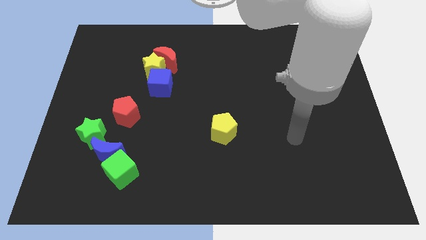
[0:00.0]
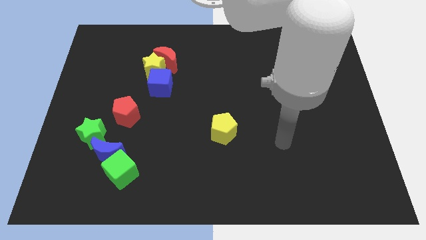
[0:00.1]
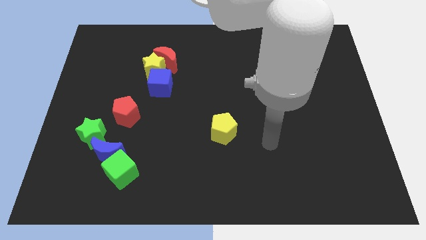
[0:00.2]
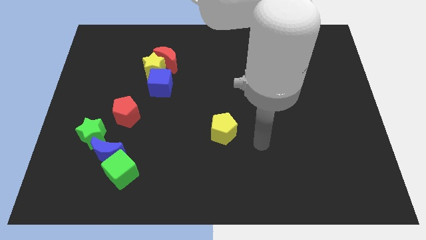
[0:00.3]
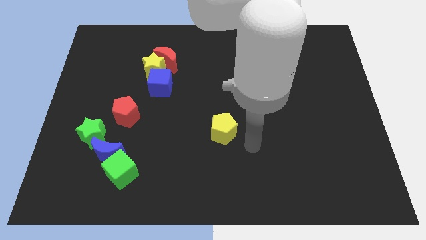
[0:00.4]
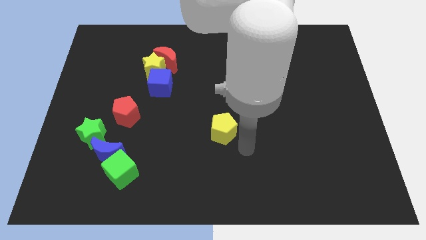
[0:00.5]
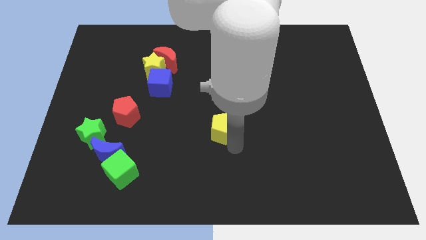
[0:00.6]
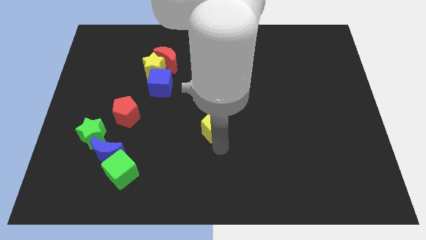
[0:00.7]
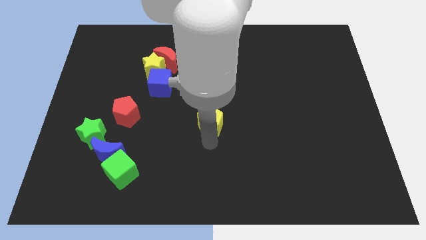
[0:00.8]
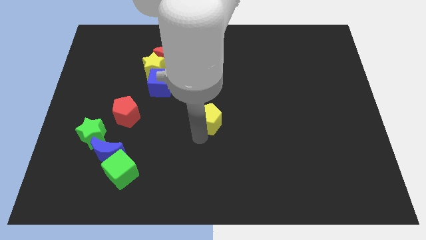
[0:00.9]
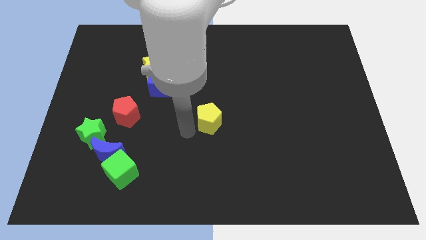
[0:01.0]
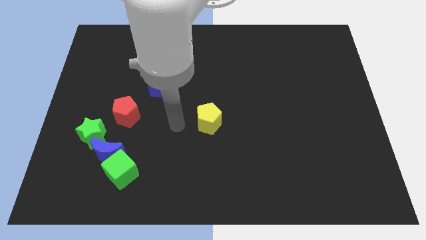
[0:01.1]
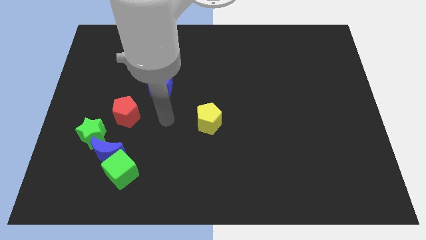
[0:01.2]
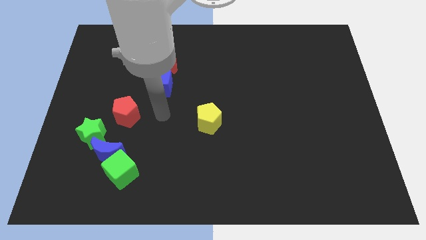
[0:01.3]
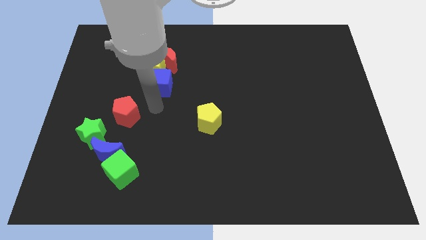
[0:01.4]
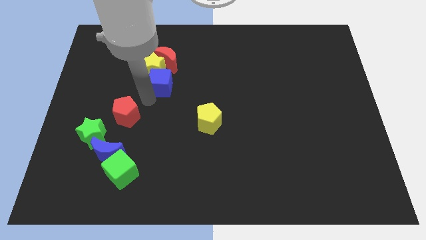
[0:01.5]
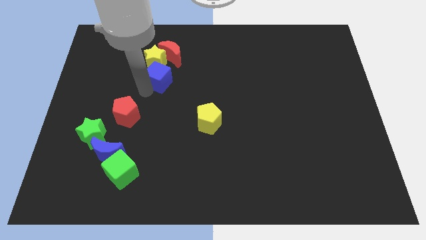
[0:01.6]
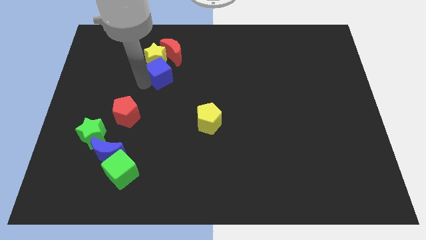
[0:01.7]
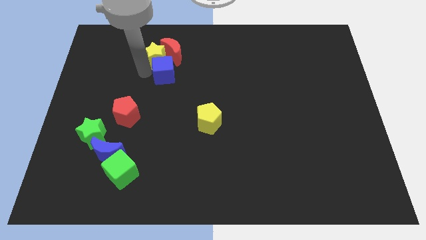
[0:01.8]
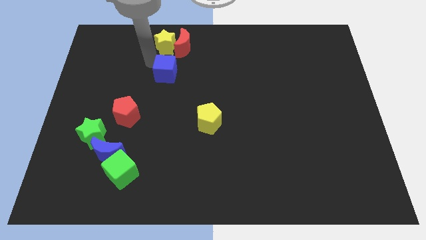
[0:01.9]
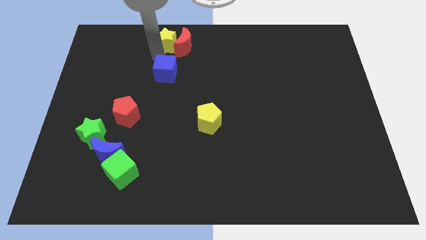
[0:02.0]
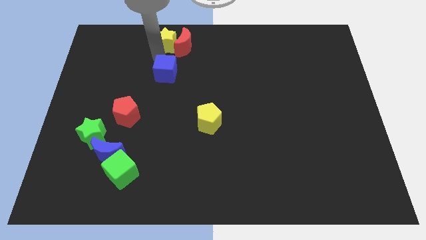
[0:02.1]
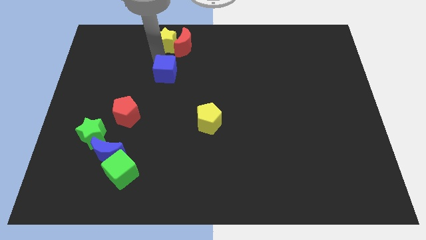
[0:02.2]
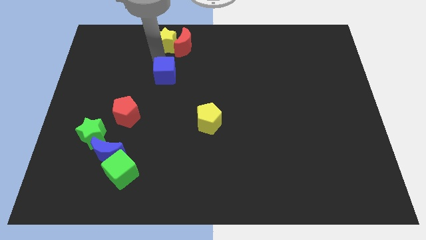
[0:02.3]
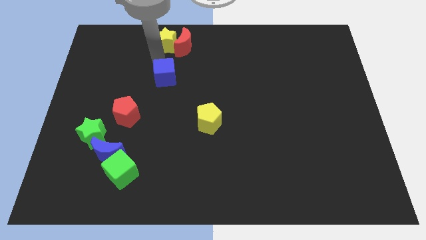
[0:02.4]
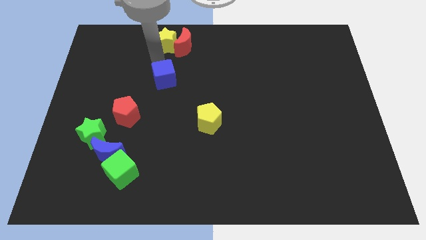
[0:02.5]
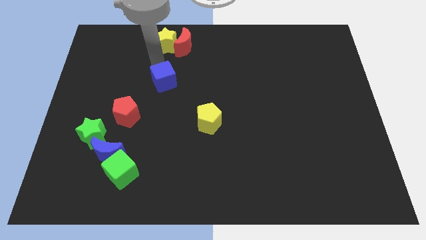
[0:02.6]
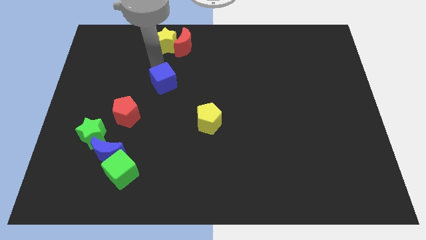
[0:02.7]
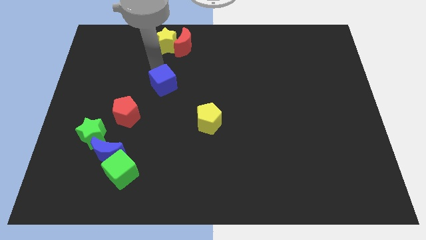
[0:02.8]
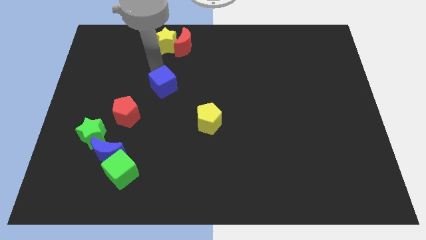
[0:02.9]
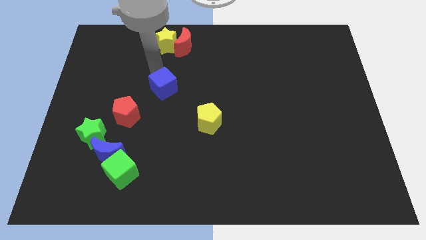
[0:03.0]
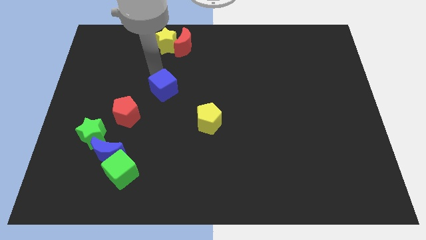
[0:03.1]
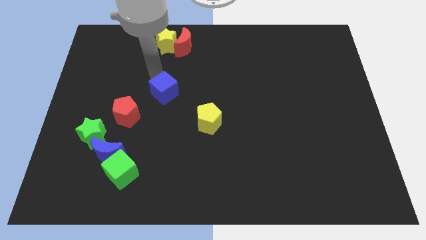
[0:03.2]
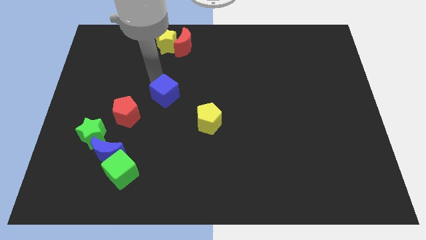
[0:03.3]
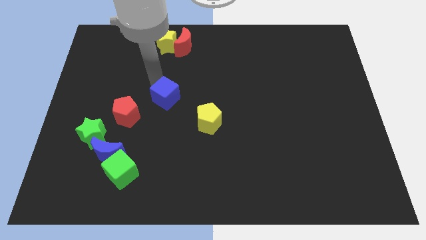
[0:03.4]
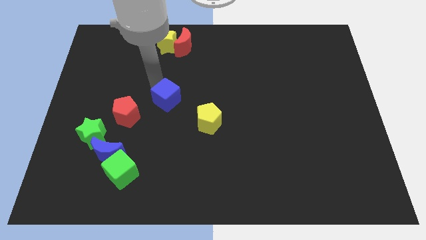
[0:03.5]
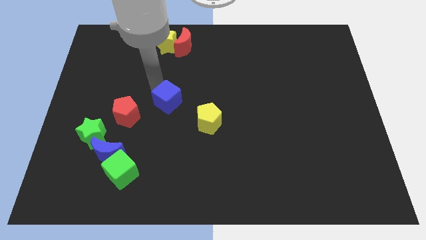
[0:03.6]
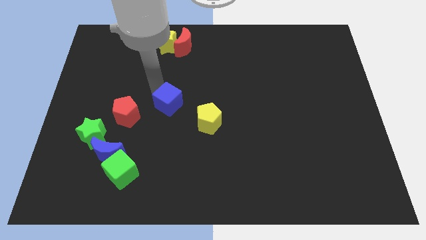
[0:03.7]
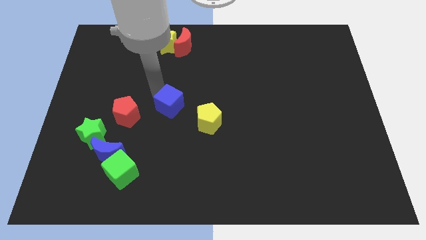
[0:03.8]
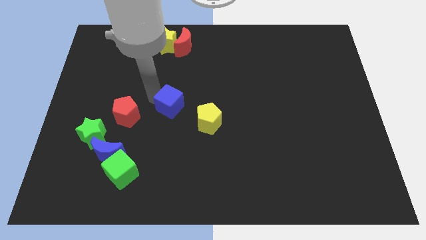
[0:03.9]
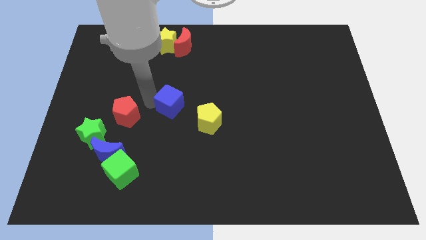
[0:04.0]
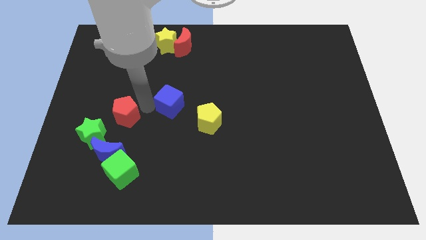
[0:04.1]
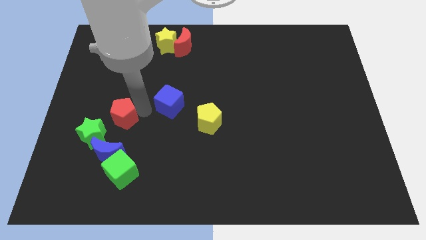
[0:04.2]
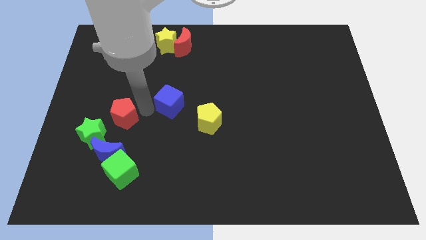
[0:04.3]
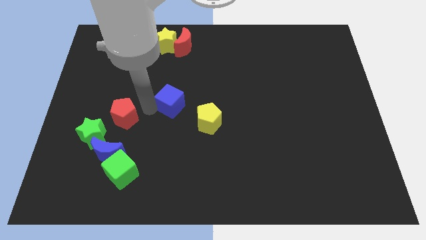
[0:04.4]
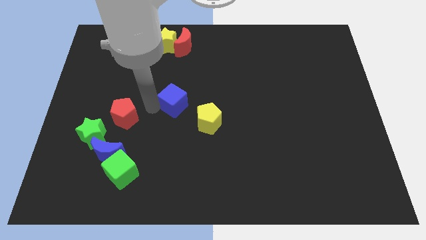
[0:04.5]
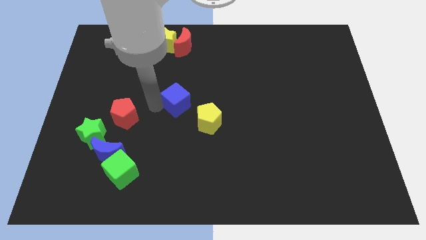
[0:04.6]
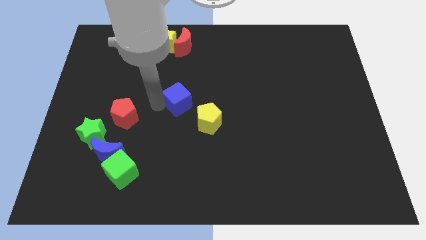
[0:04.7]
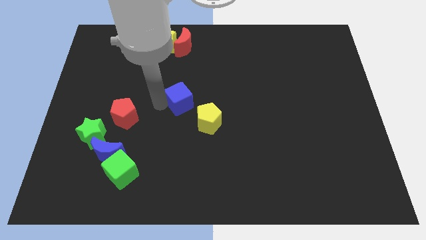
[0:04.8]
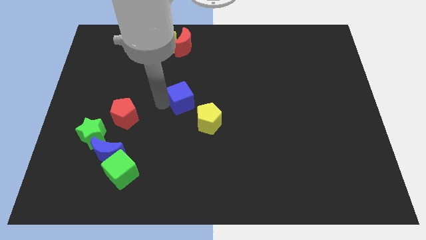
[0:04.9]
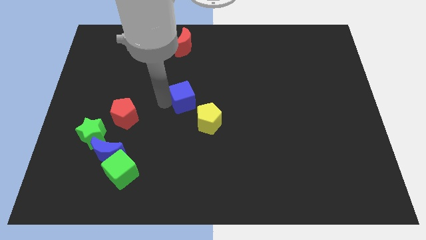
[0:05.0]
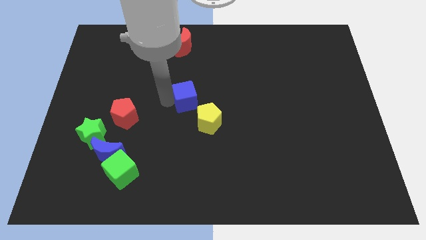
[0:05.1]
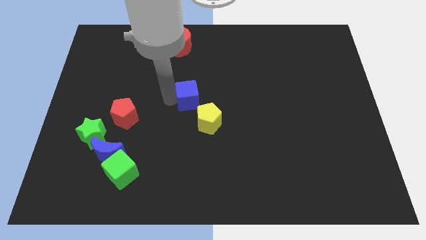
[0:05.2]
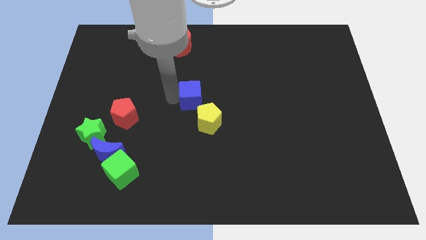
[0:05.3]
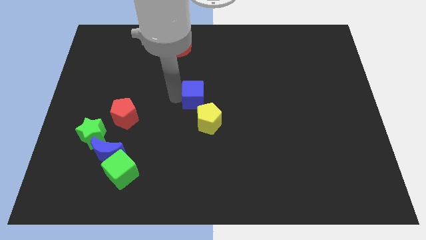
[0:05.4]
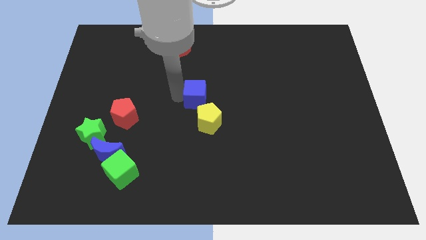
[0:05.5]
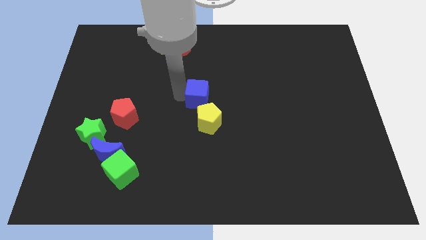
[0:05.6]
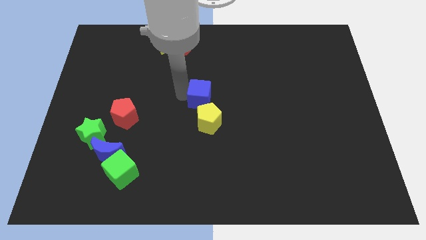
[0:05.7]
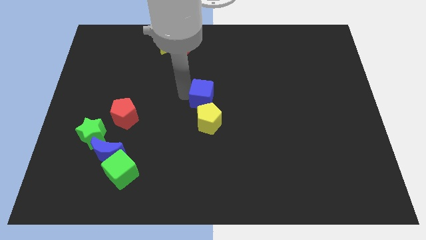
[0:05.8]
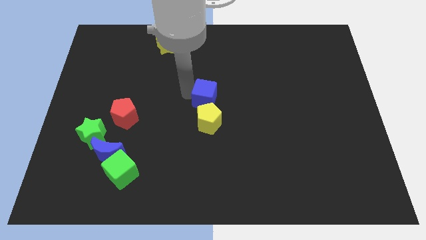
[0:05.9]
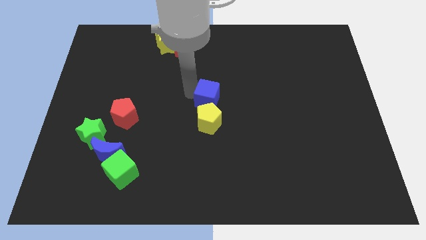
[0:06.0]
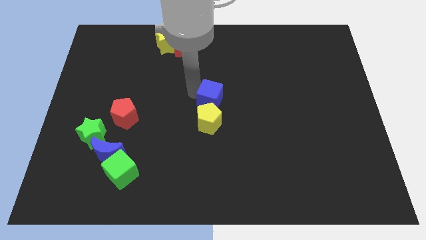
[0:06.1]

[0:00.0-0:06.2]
move the blue cube diagonally up and to the right of the yellow pentagon

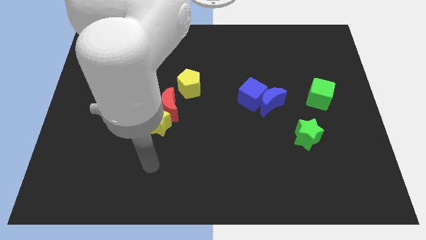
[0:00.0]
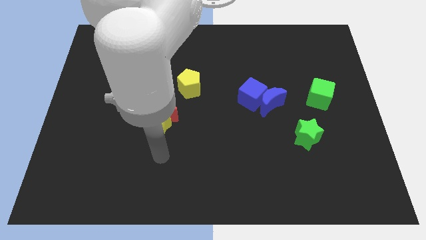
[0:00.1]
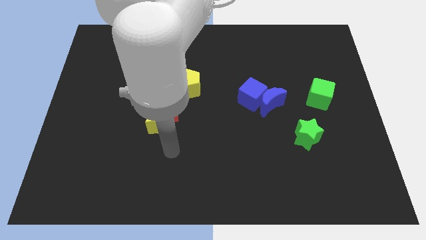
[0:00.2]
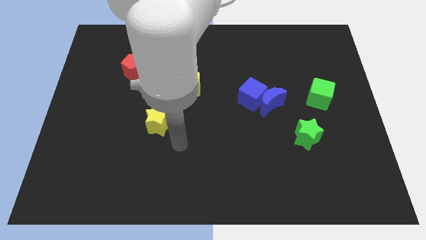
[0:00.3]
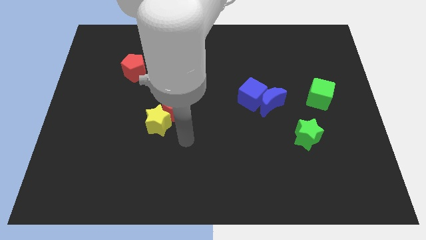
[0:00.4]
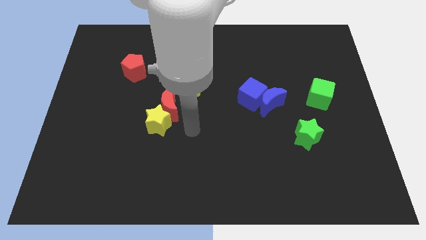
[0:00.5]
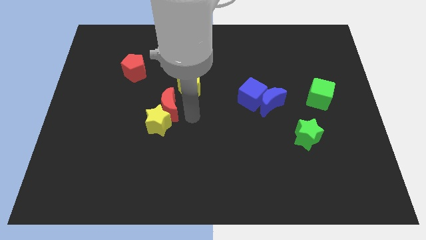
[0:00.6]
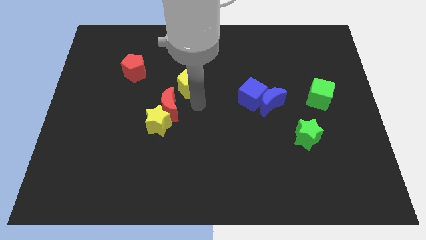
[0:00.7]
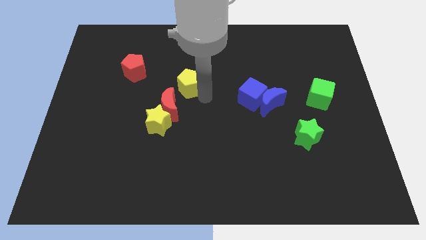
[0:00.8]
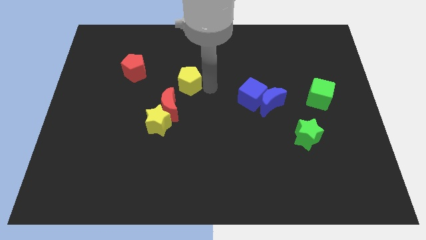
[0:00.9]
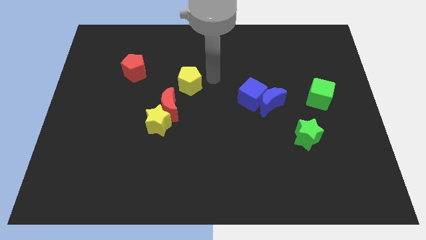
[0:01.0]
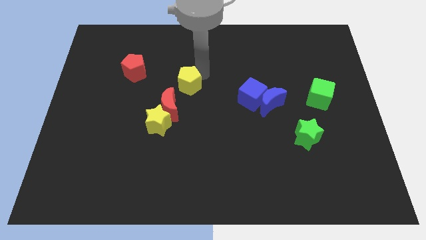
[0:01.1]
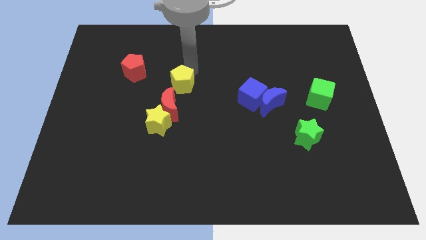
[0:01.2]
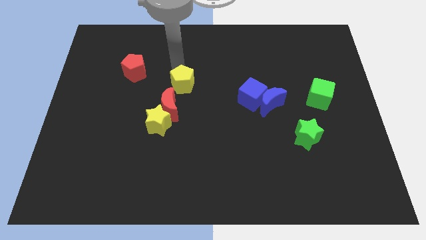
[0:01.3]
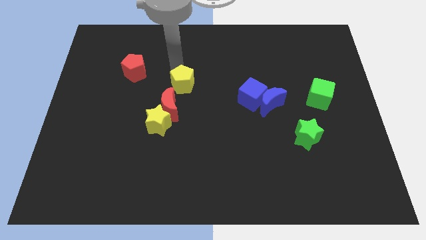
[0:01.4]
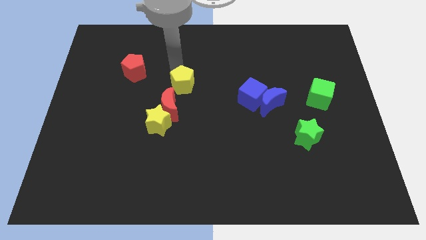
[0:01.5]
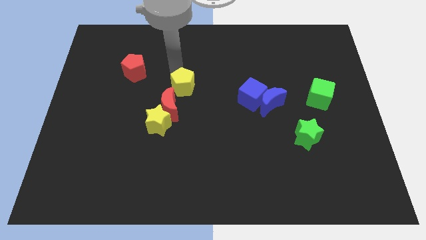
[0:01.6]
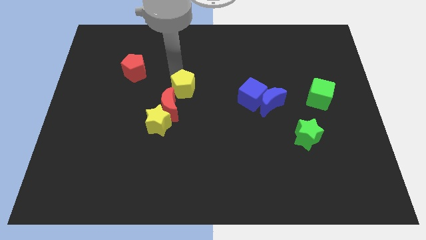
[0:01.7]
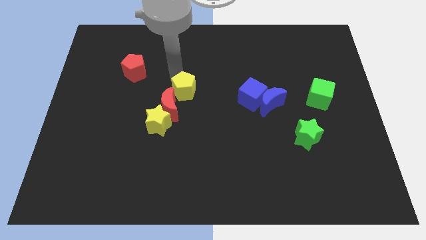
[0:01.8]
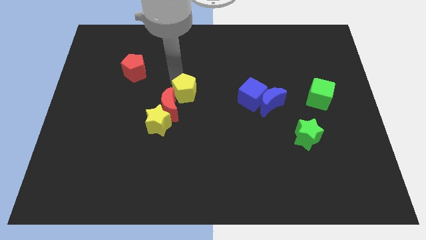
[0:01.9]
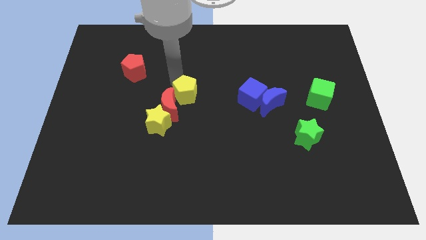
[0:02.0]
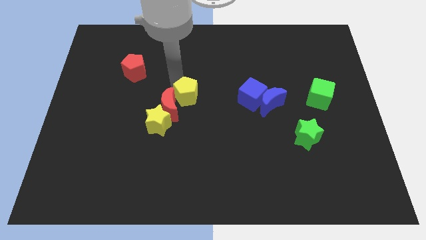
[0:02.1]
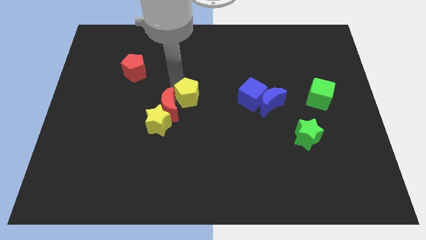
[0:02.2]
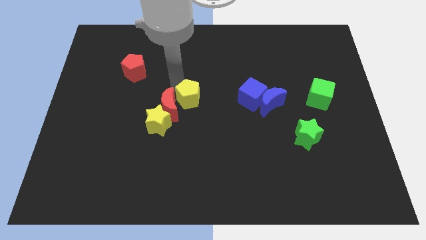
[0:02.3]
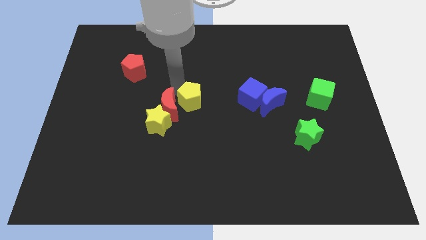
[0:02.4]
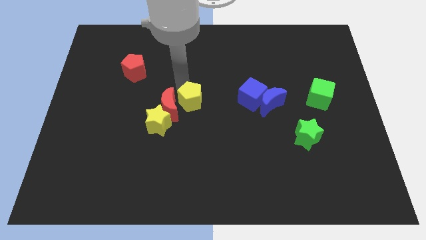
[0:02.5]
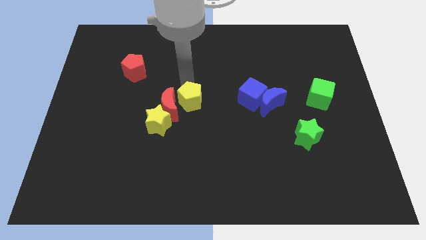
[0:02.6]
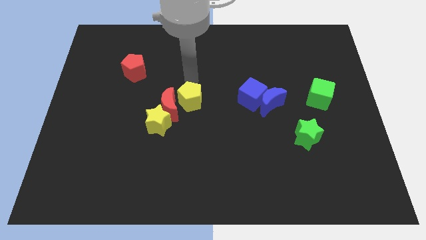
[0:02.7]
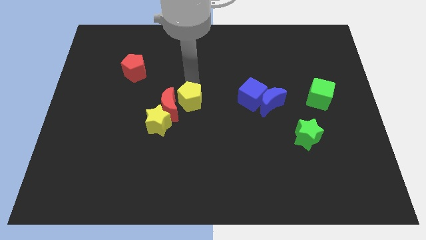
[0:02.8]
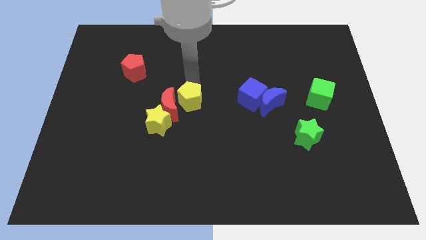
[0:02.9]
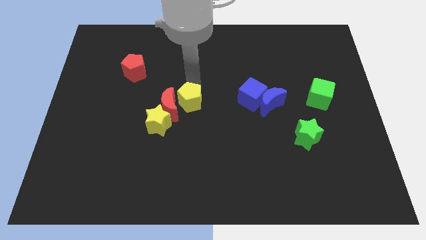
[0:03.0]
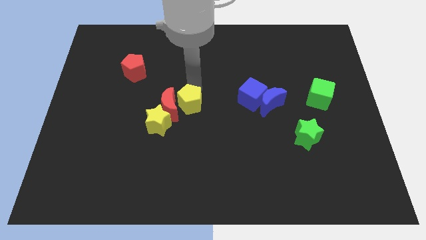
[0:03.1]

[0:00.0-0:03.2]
slide the yellow pentagon to the bottom right of the red moon
